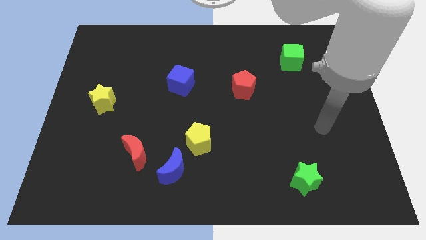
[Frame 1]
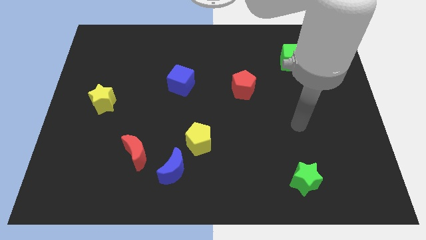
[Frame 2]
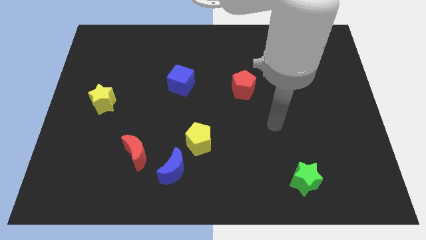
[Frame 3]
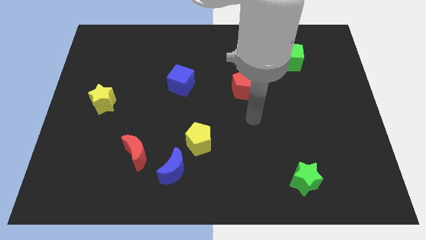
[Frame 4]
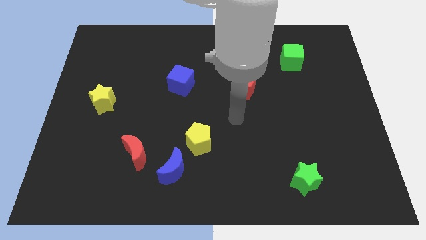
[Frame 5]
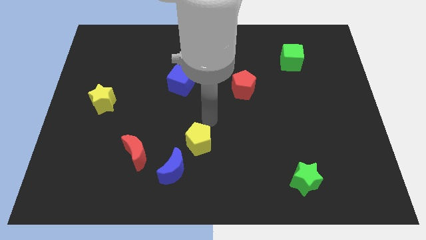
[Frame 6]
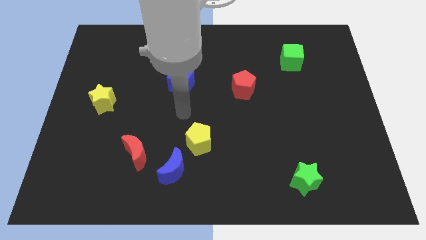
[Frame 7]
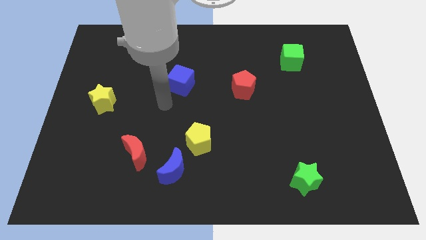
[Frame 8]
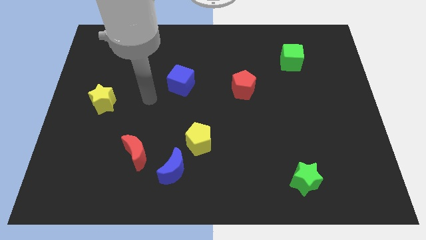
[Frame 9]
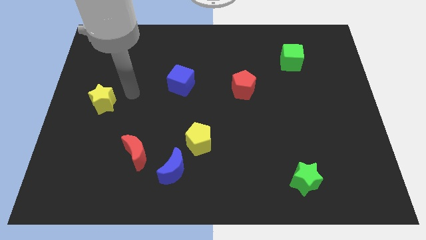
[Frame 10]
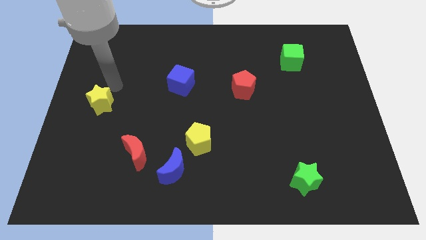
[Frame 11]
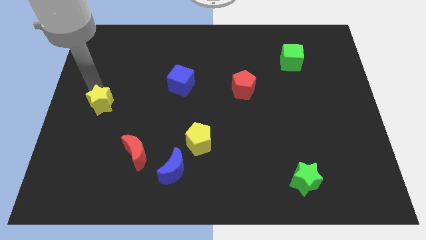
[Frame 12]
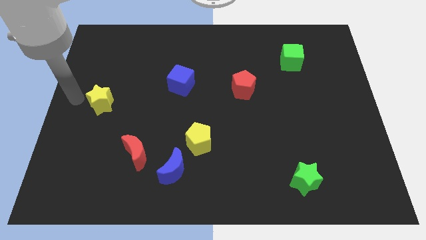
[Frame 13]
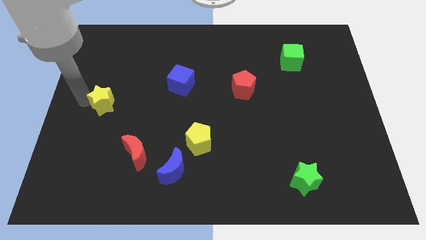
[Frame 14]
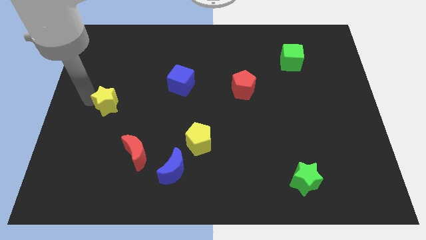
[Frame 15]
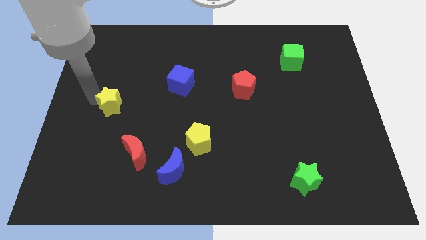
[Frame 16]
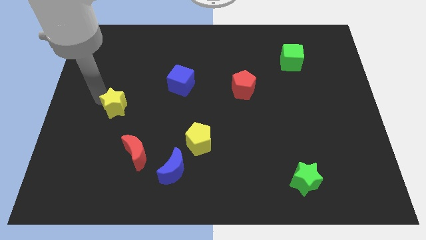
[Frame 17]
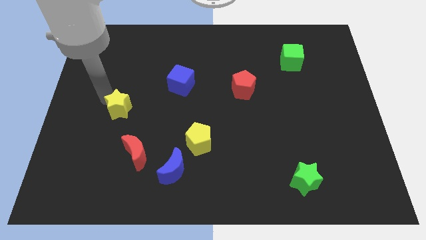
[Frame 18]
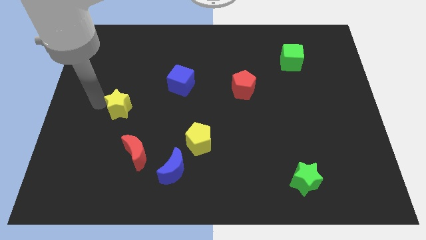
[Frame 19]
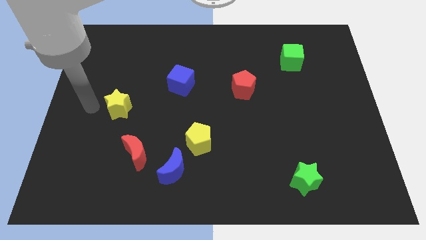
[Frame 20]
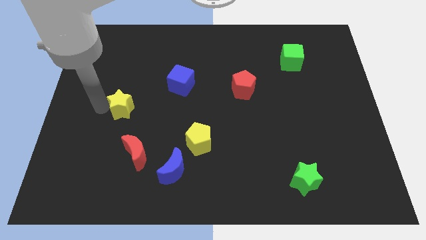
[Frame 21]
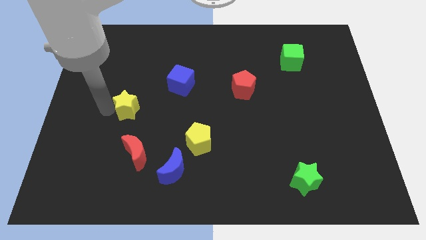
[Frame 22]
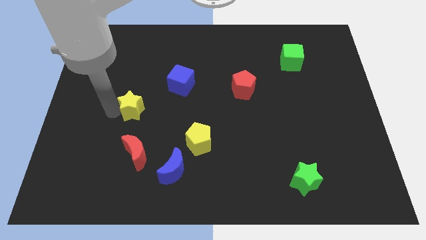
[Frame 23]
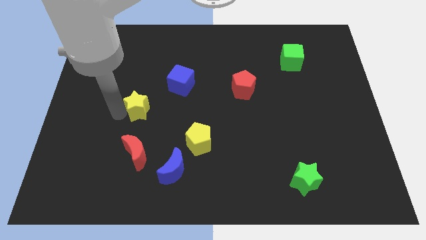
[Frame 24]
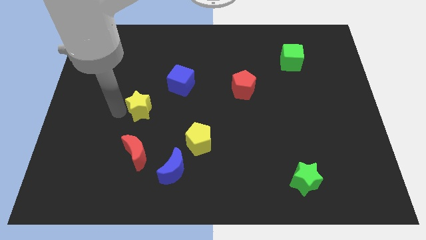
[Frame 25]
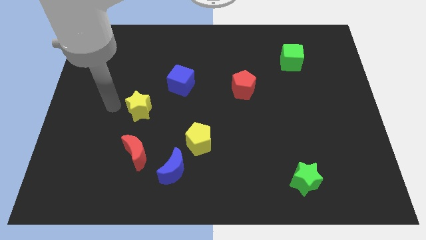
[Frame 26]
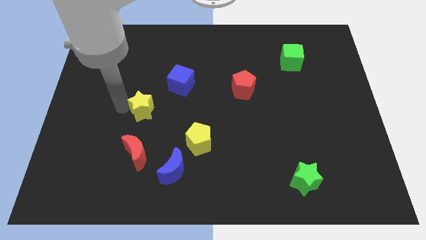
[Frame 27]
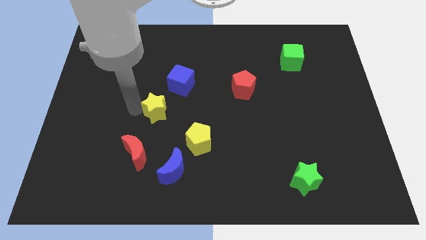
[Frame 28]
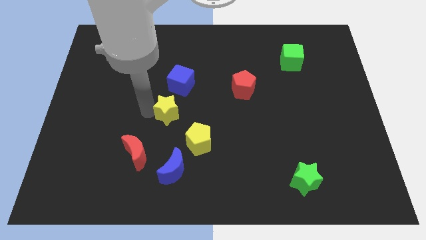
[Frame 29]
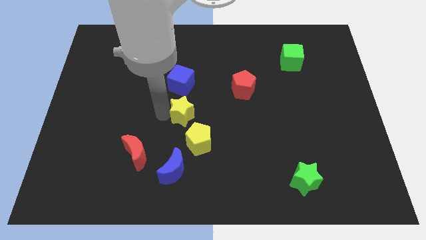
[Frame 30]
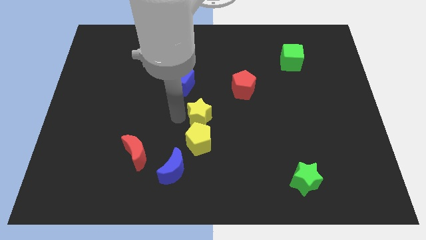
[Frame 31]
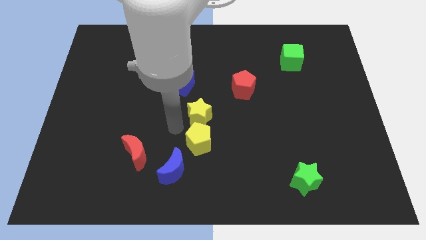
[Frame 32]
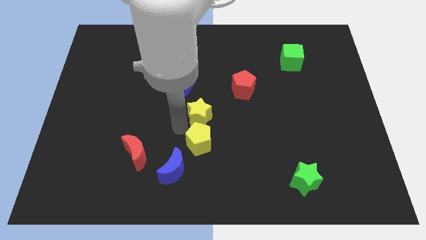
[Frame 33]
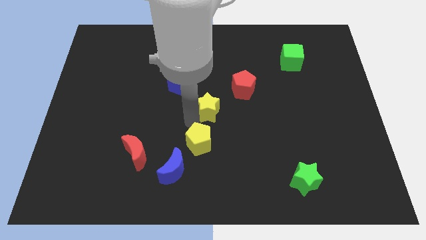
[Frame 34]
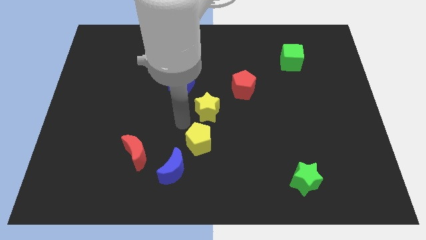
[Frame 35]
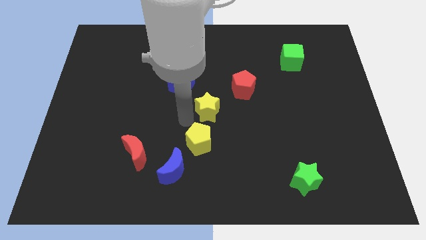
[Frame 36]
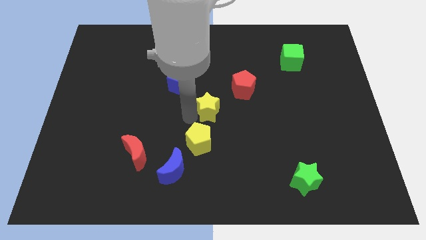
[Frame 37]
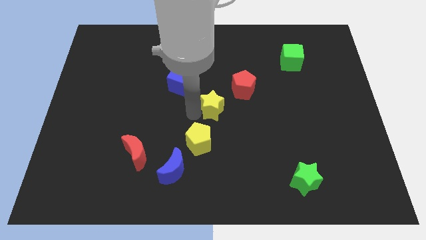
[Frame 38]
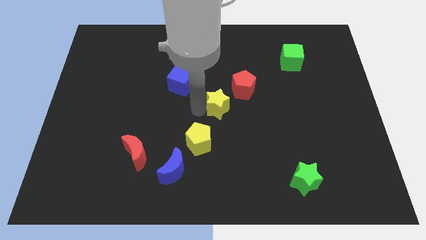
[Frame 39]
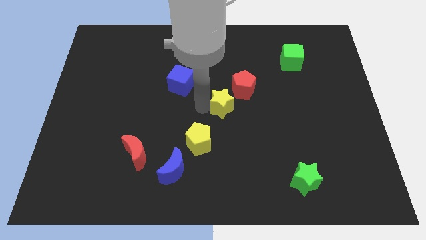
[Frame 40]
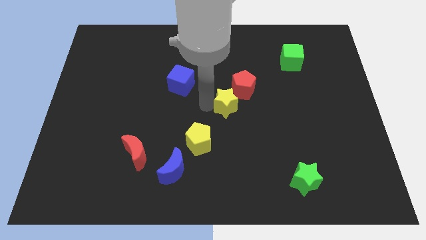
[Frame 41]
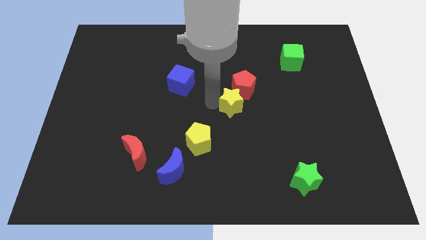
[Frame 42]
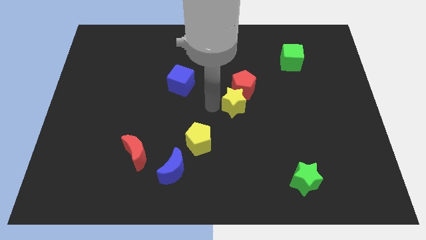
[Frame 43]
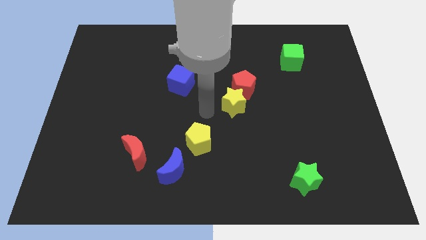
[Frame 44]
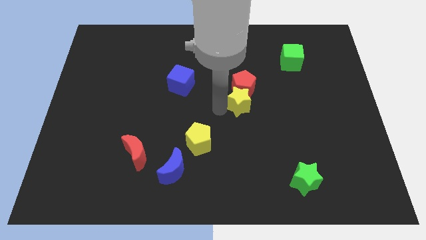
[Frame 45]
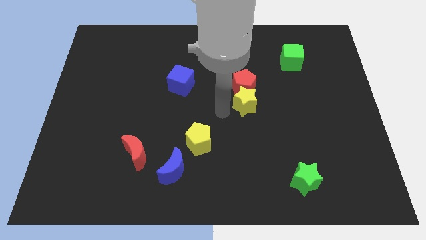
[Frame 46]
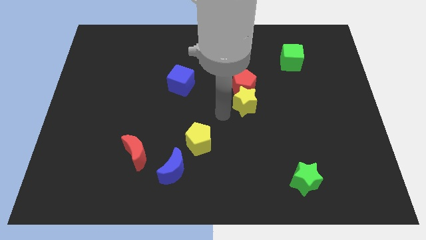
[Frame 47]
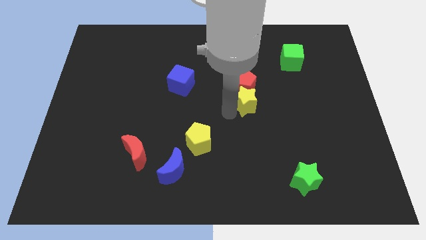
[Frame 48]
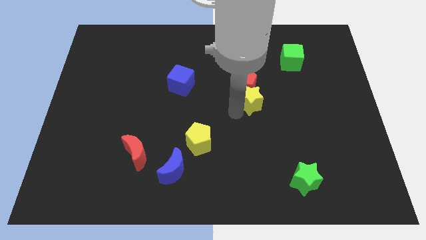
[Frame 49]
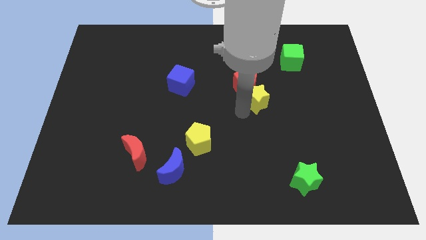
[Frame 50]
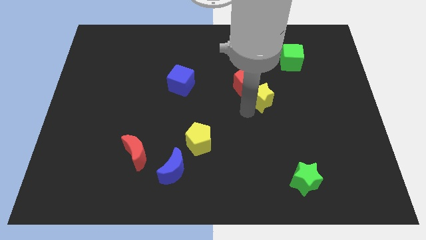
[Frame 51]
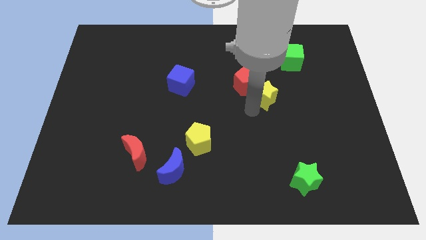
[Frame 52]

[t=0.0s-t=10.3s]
move the yellow star just right of the red pentagon

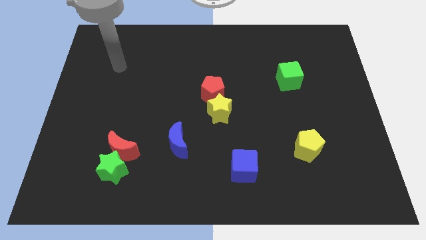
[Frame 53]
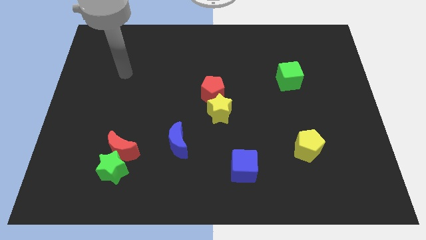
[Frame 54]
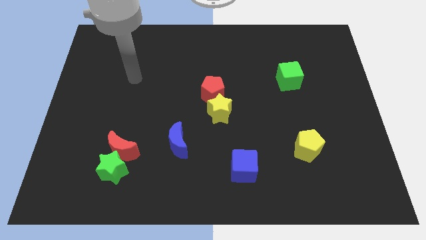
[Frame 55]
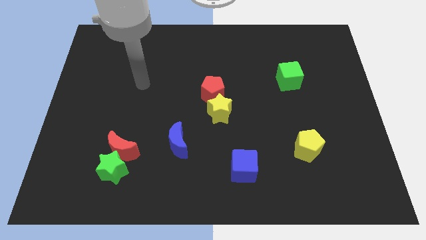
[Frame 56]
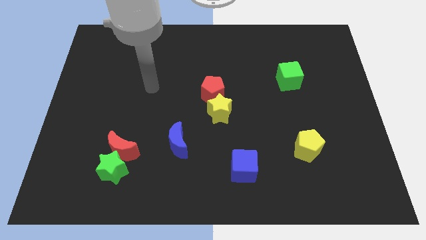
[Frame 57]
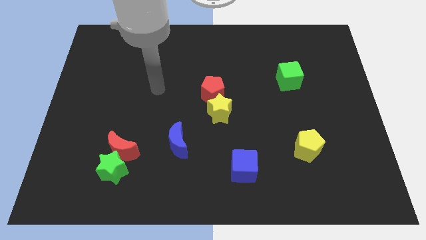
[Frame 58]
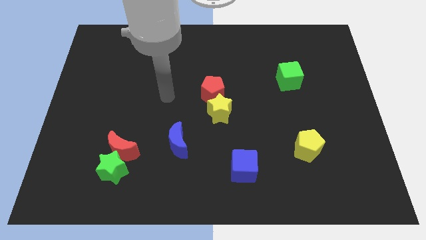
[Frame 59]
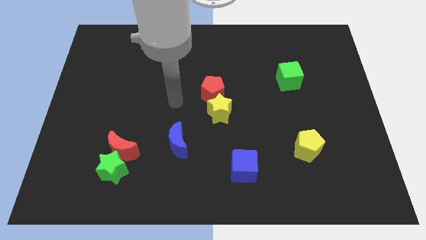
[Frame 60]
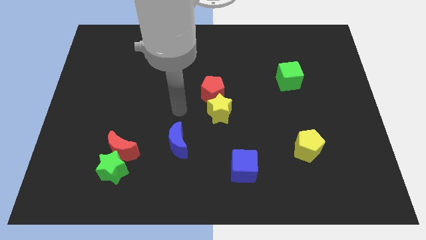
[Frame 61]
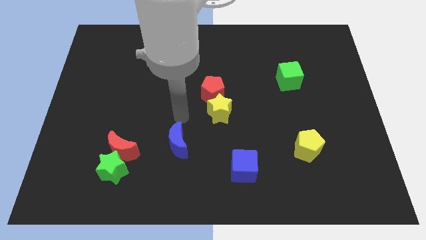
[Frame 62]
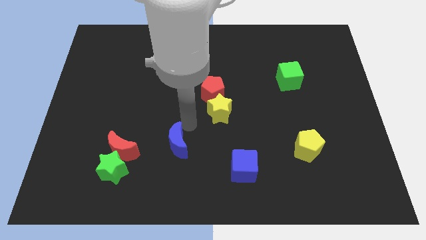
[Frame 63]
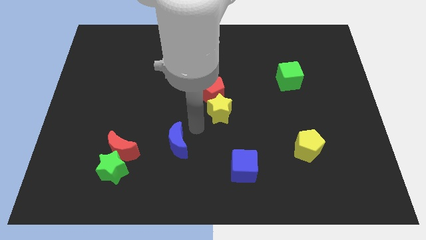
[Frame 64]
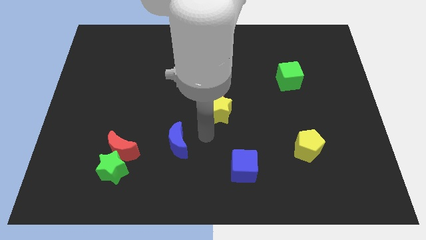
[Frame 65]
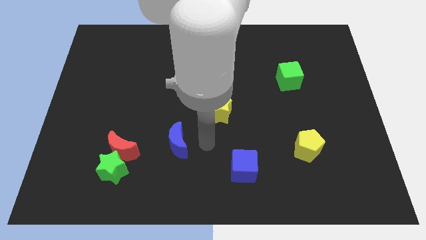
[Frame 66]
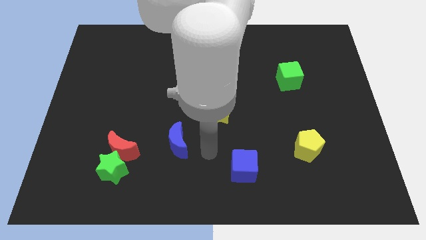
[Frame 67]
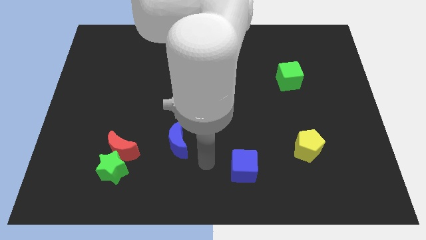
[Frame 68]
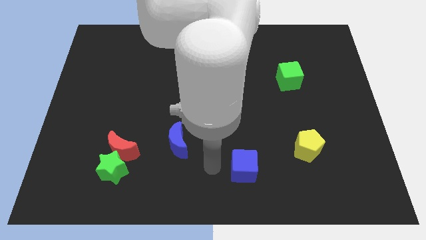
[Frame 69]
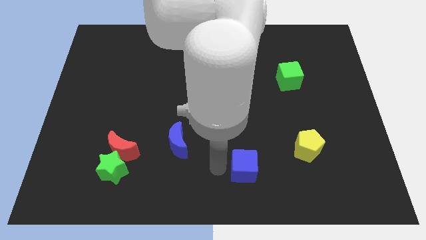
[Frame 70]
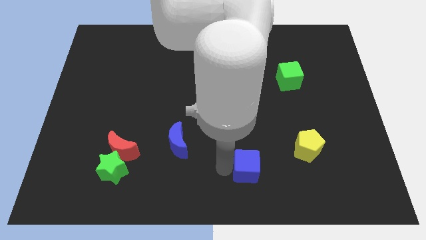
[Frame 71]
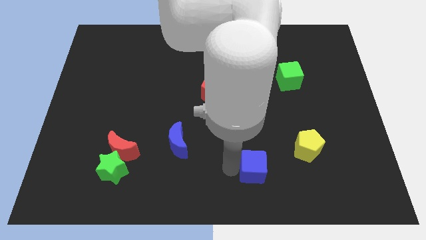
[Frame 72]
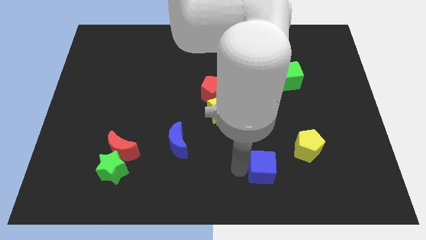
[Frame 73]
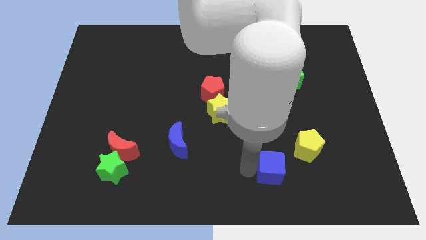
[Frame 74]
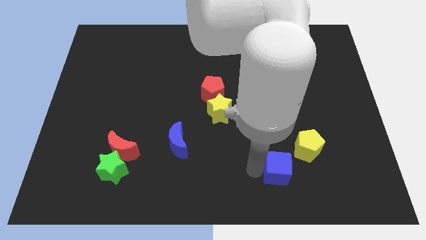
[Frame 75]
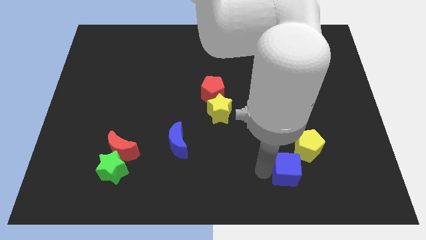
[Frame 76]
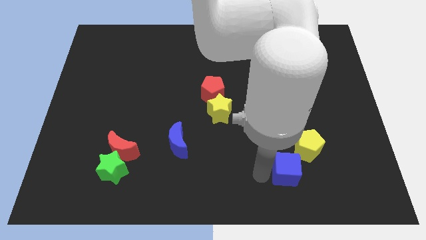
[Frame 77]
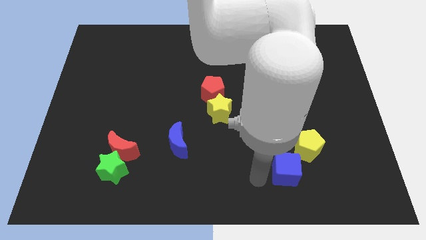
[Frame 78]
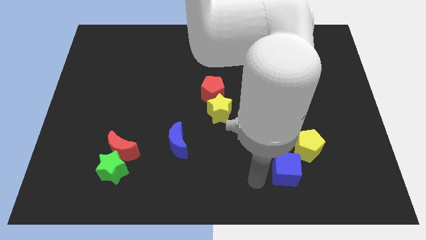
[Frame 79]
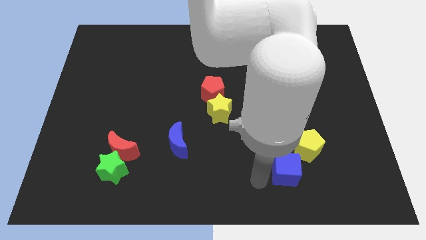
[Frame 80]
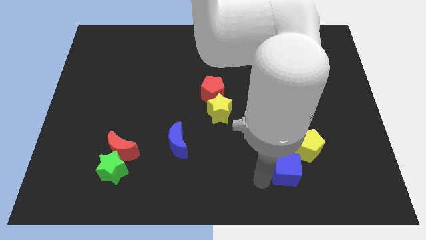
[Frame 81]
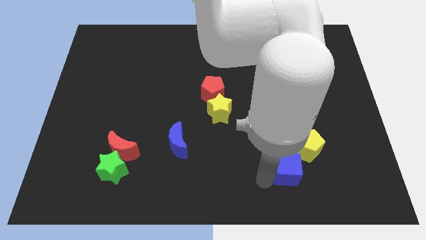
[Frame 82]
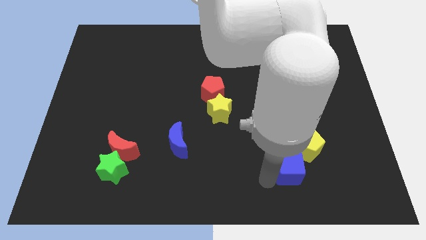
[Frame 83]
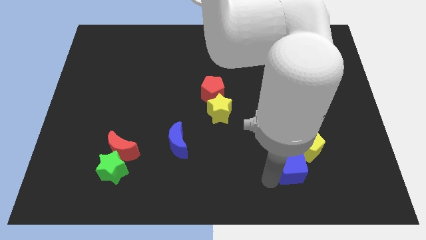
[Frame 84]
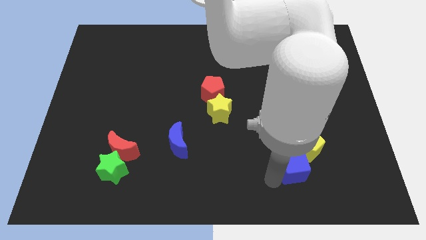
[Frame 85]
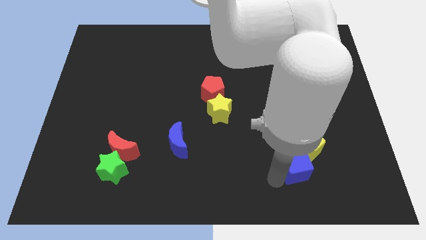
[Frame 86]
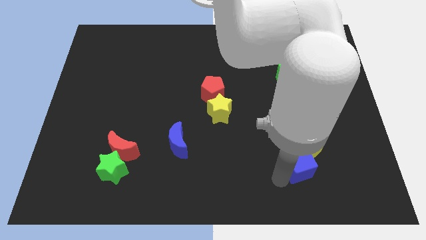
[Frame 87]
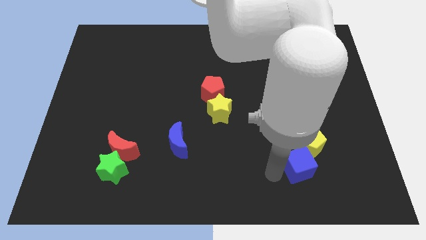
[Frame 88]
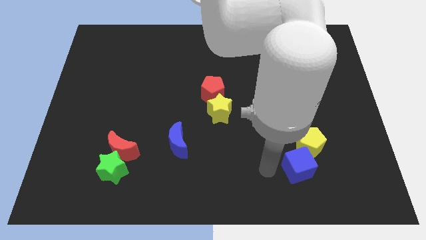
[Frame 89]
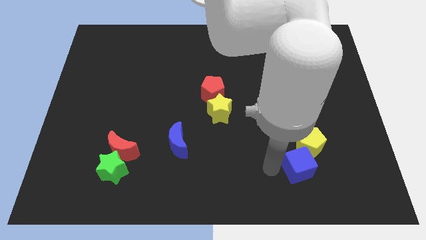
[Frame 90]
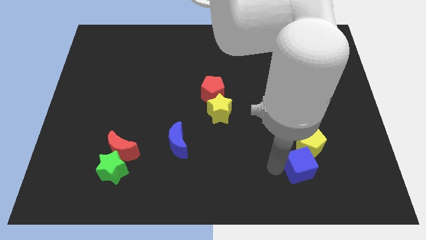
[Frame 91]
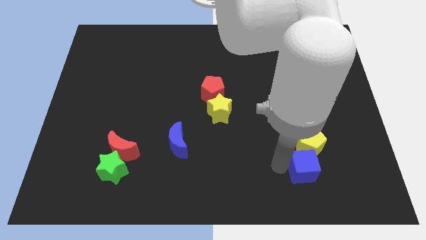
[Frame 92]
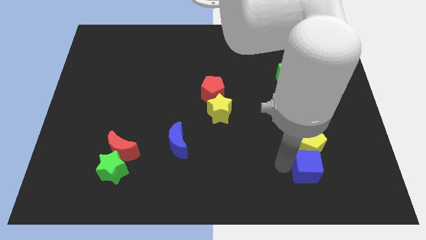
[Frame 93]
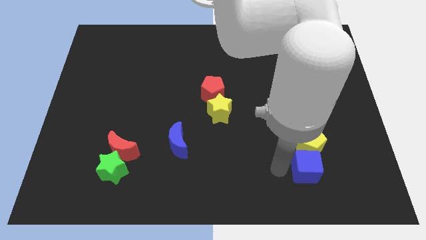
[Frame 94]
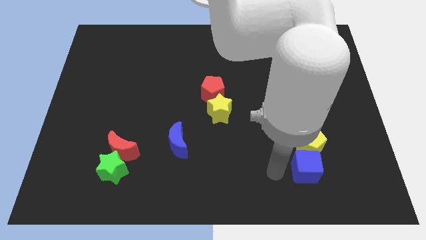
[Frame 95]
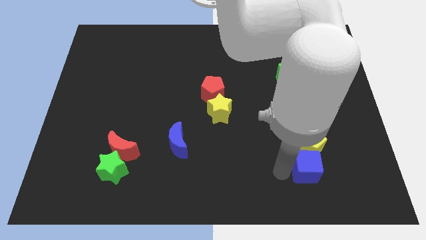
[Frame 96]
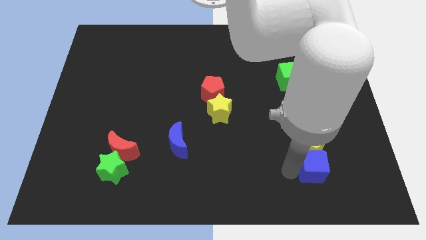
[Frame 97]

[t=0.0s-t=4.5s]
push the blue cube to the bottom right side of the yellow pentagon
